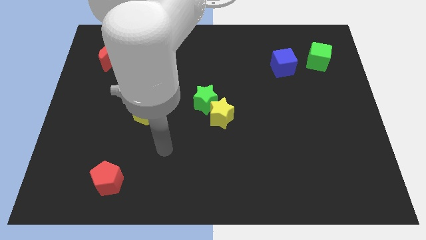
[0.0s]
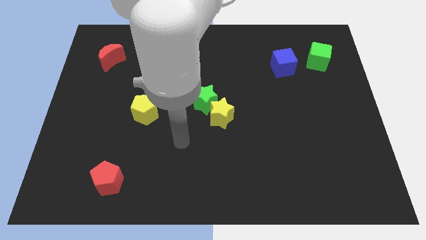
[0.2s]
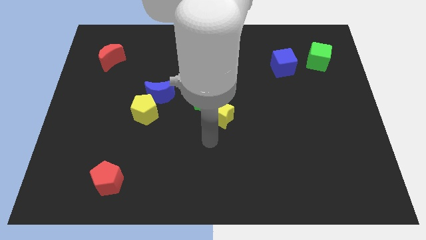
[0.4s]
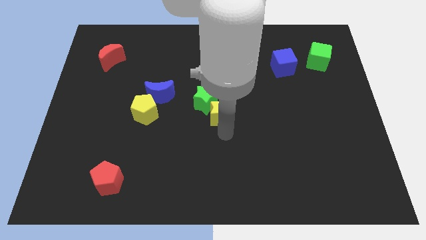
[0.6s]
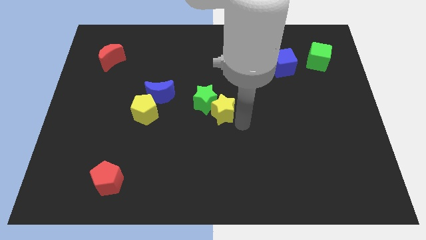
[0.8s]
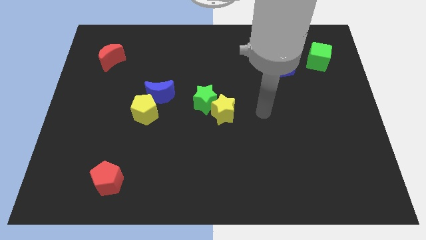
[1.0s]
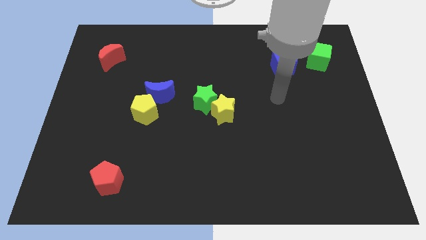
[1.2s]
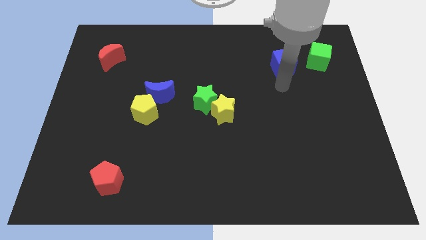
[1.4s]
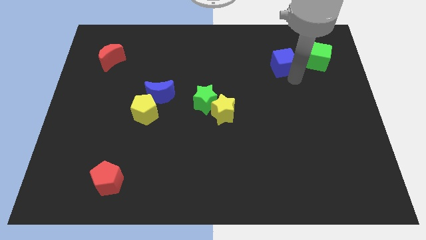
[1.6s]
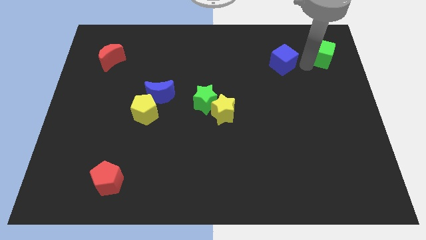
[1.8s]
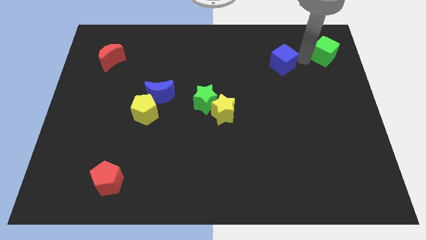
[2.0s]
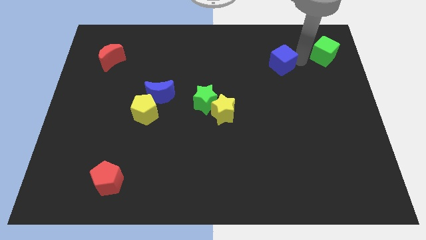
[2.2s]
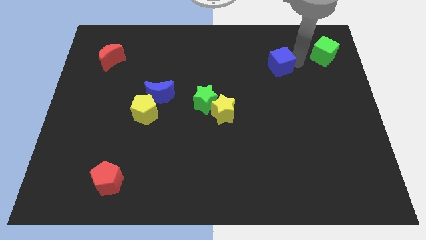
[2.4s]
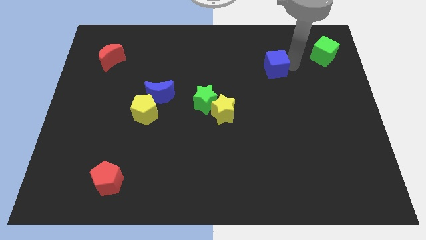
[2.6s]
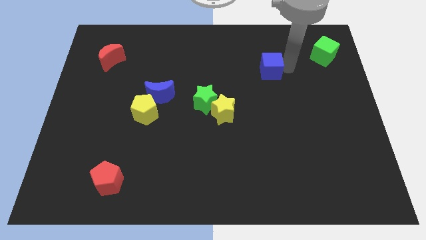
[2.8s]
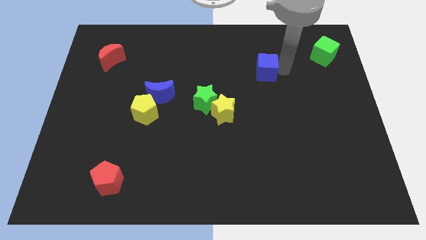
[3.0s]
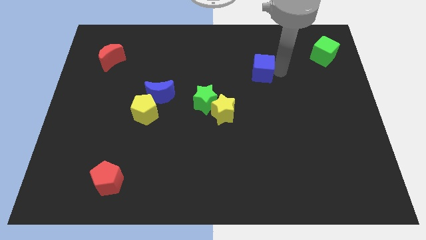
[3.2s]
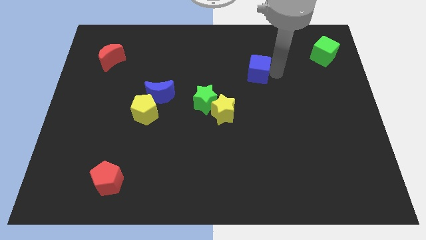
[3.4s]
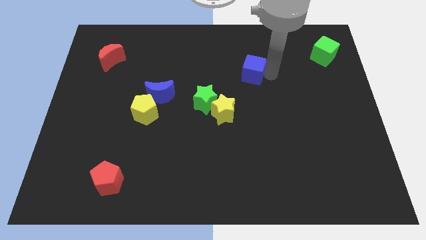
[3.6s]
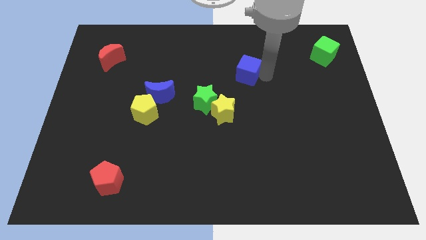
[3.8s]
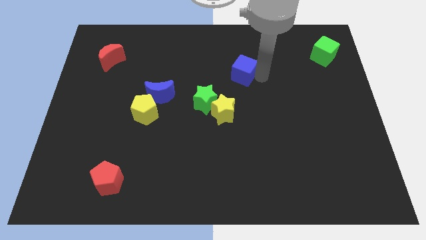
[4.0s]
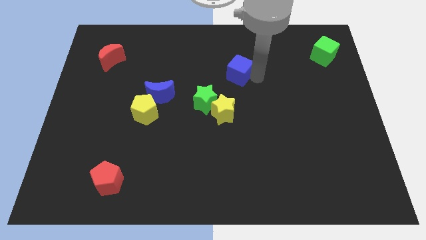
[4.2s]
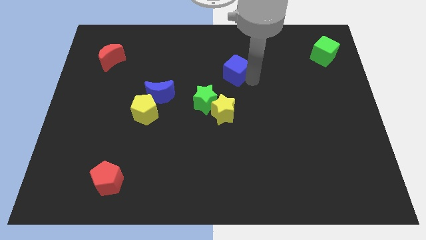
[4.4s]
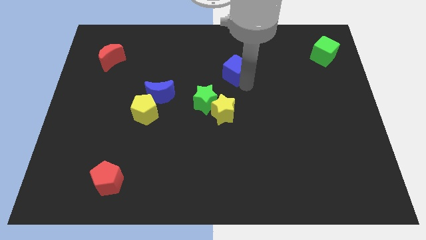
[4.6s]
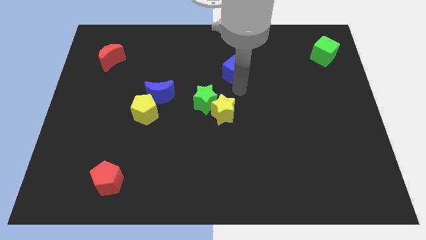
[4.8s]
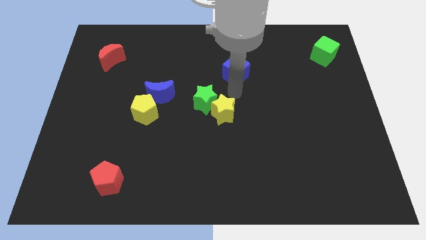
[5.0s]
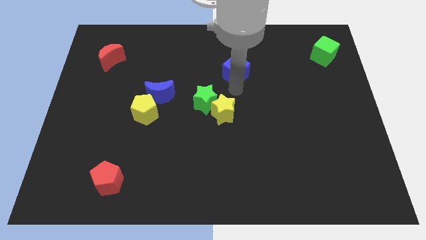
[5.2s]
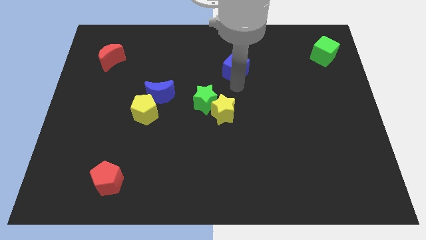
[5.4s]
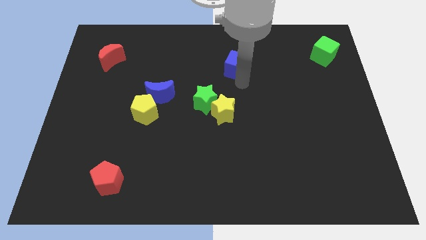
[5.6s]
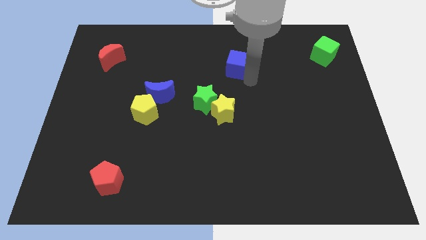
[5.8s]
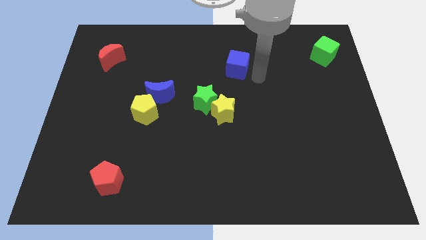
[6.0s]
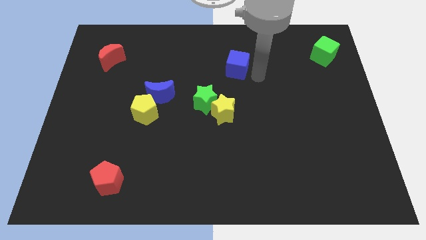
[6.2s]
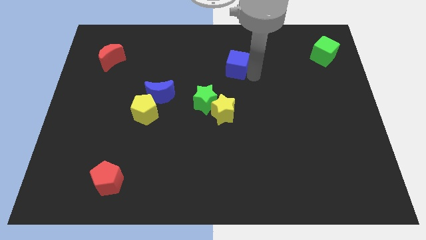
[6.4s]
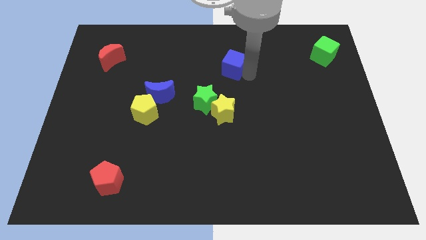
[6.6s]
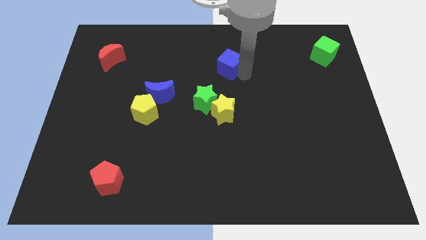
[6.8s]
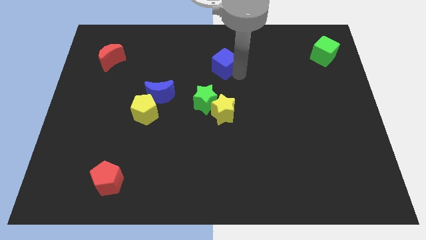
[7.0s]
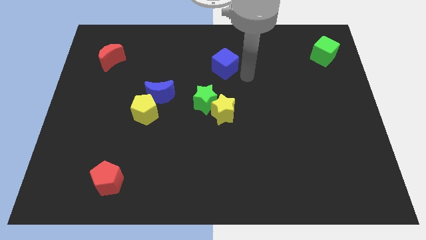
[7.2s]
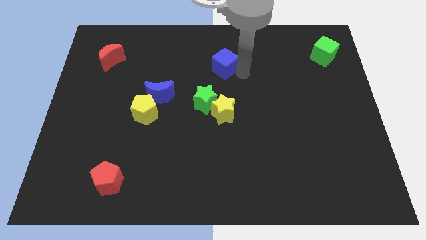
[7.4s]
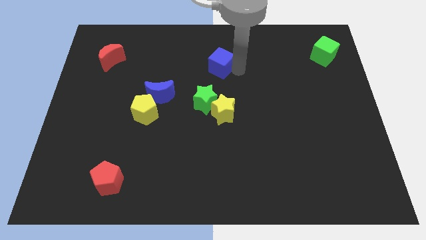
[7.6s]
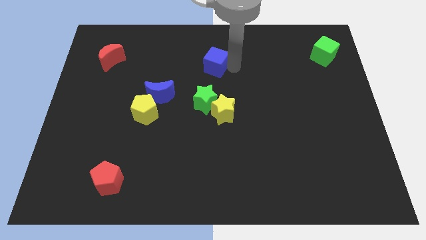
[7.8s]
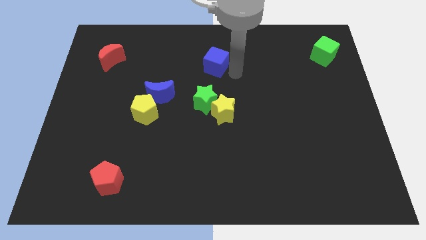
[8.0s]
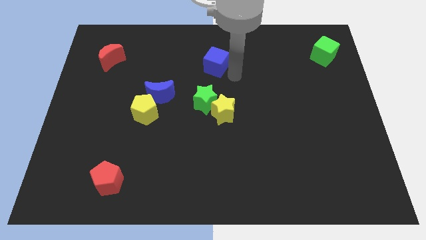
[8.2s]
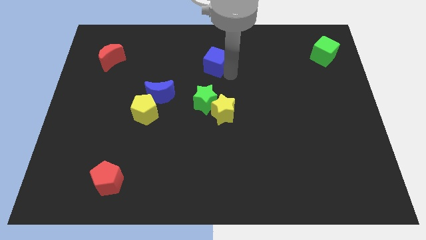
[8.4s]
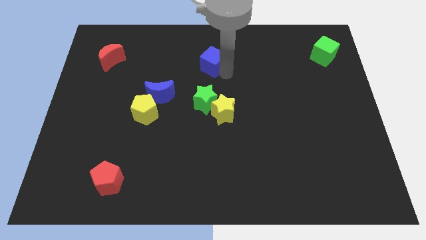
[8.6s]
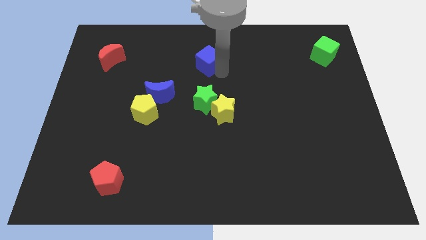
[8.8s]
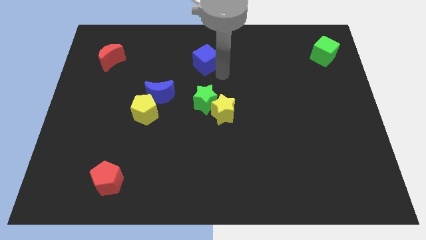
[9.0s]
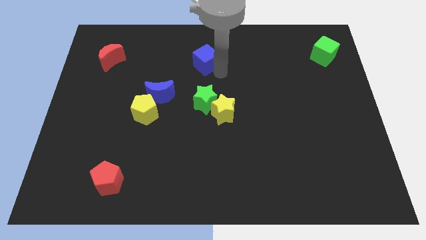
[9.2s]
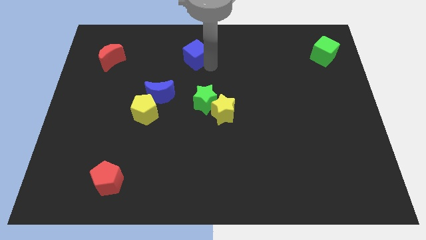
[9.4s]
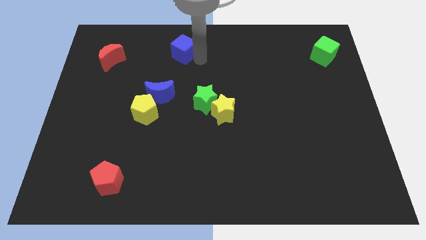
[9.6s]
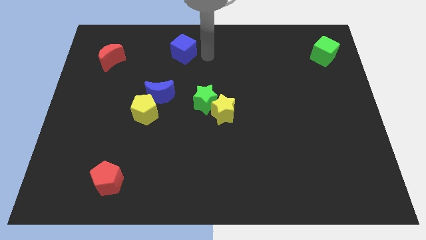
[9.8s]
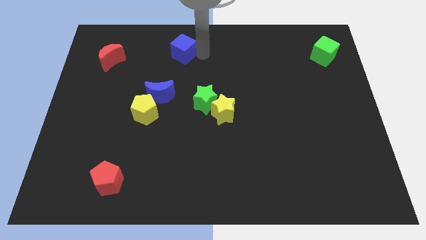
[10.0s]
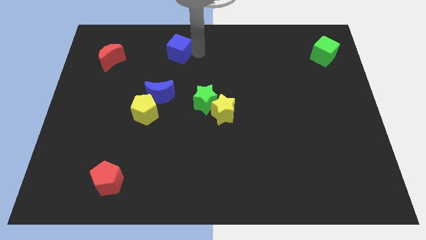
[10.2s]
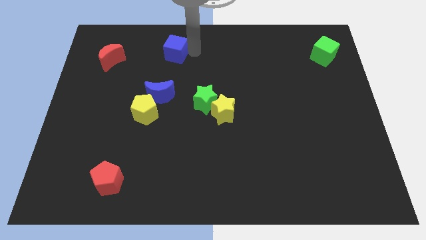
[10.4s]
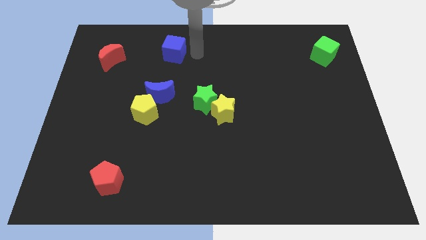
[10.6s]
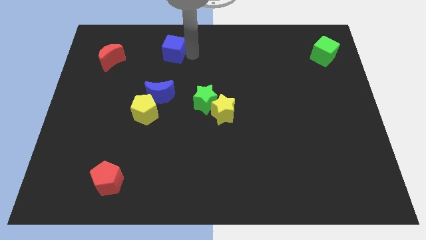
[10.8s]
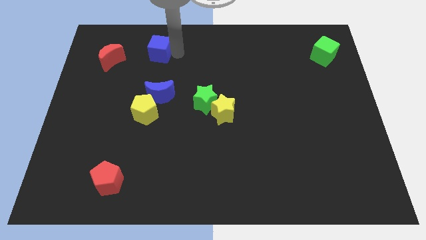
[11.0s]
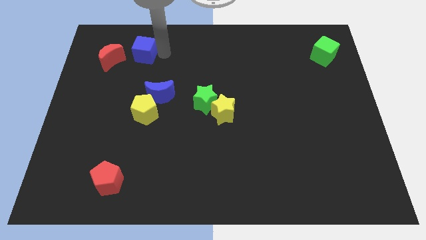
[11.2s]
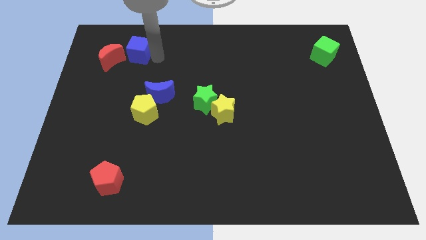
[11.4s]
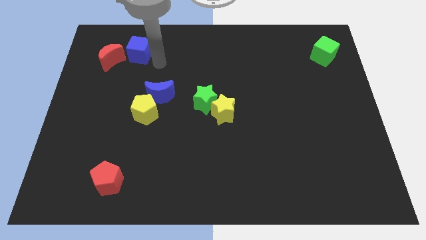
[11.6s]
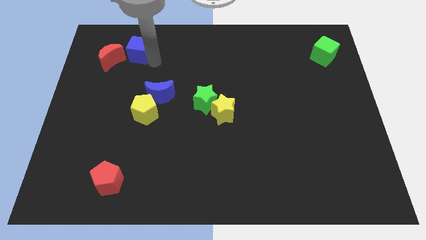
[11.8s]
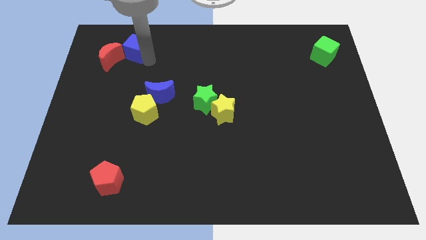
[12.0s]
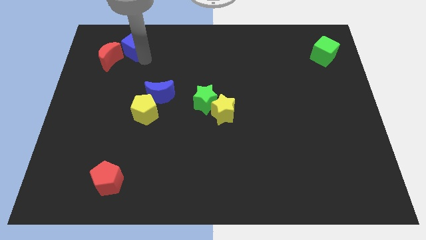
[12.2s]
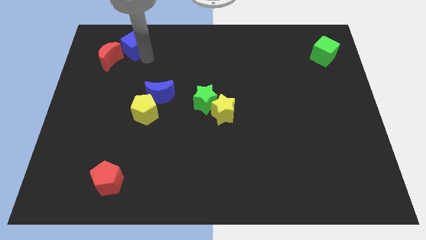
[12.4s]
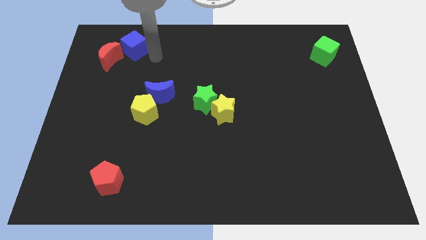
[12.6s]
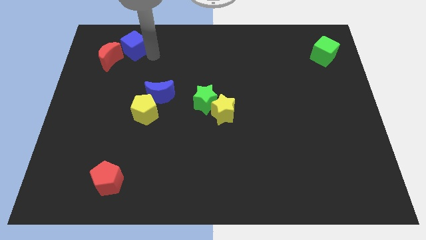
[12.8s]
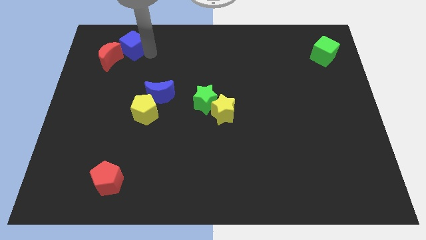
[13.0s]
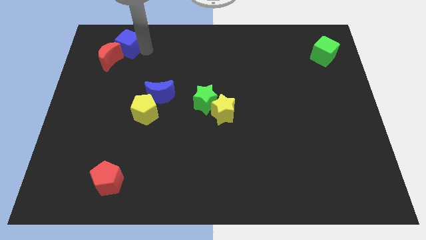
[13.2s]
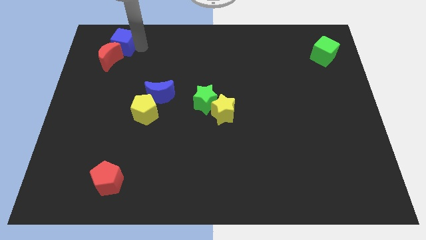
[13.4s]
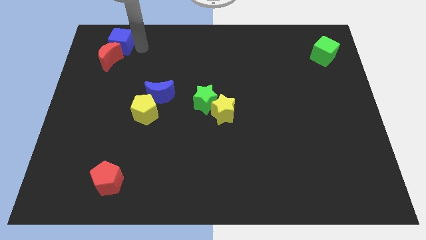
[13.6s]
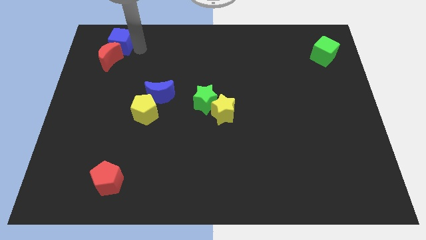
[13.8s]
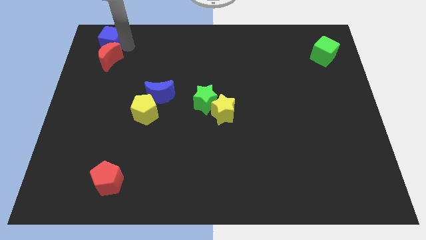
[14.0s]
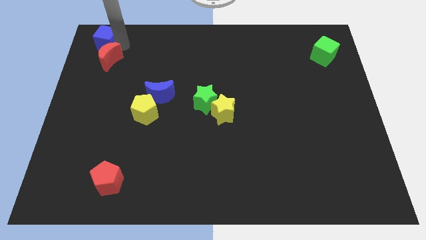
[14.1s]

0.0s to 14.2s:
push the blue cube to the top left of the board

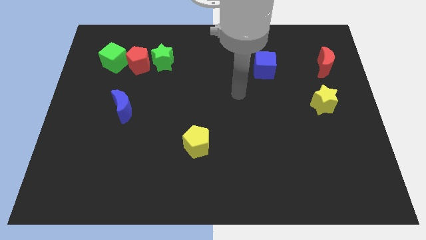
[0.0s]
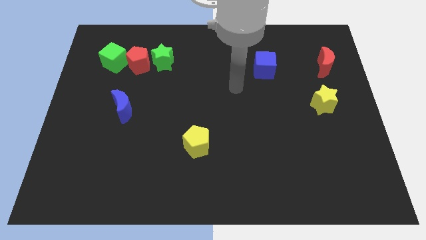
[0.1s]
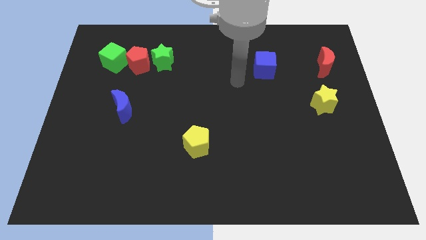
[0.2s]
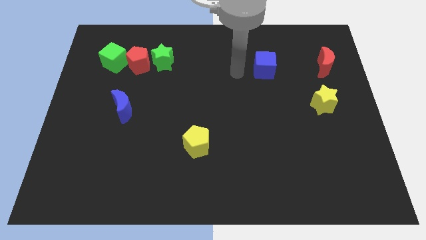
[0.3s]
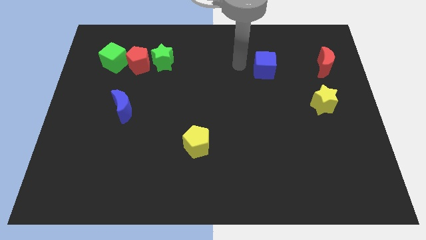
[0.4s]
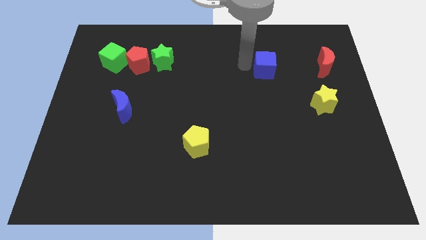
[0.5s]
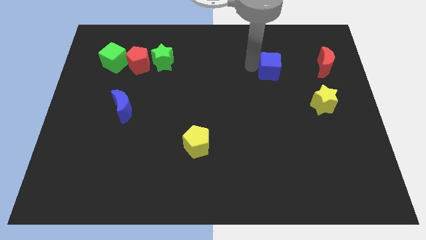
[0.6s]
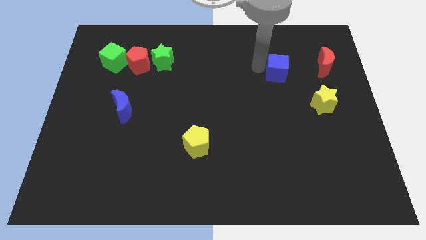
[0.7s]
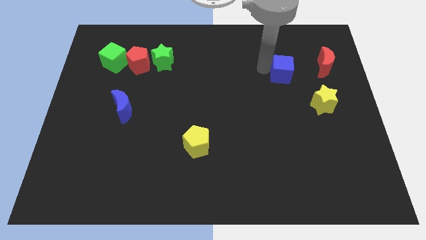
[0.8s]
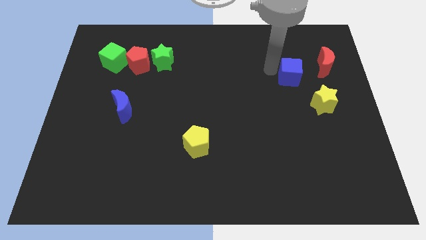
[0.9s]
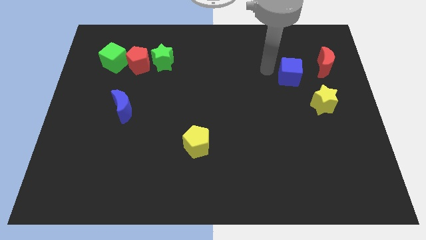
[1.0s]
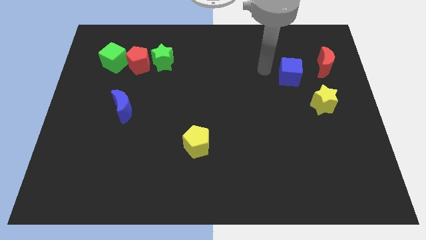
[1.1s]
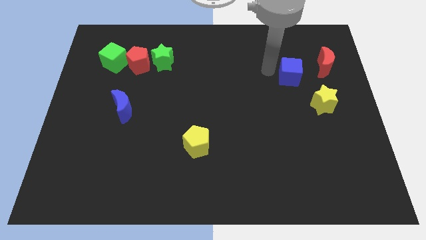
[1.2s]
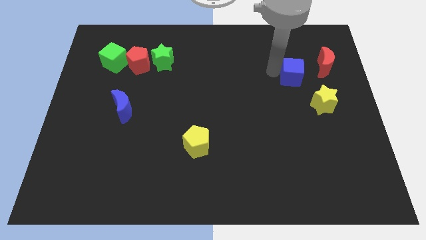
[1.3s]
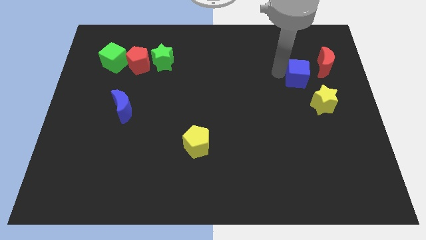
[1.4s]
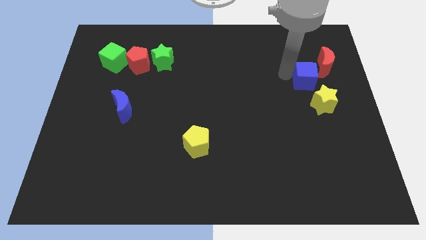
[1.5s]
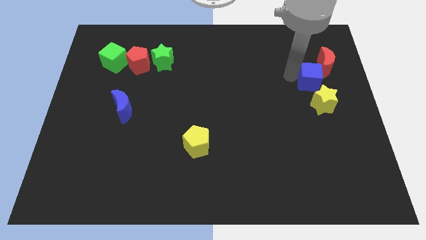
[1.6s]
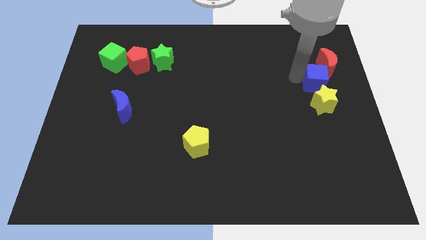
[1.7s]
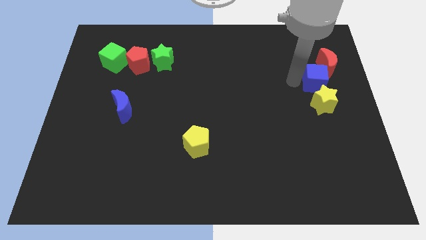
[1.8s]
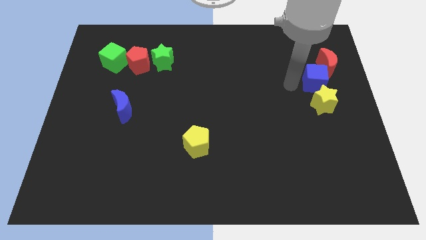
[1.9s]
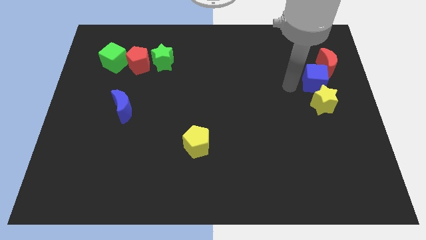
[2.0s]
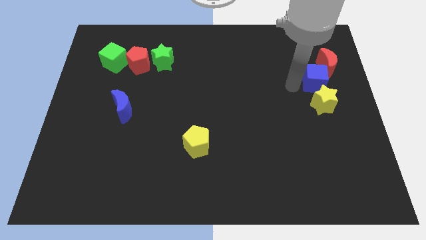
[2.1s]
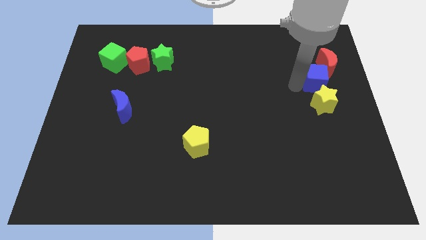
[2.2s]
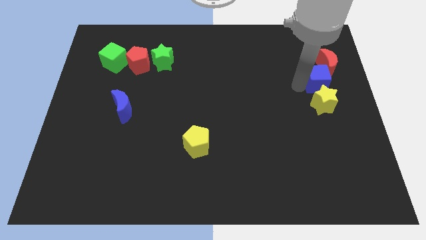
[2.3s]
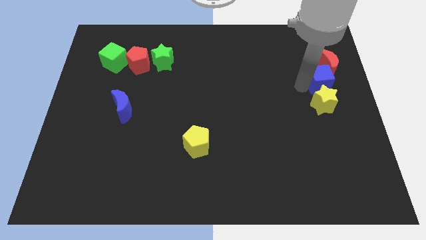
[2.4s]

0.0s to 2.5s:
slide the blue cube to the right side of the board
